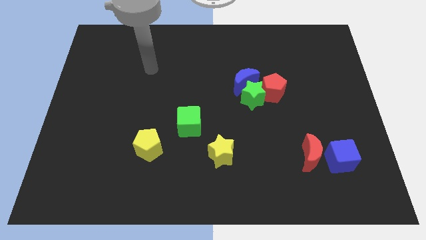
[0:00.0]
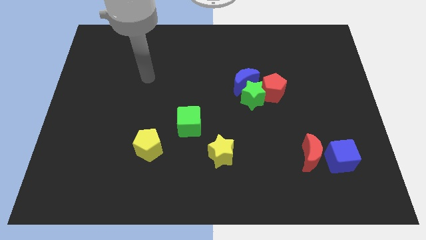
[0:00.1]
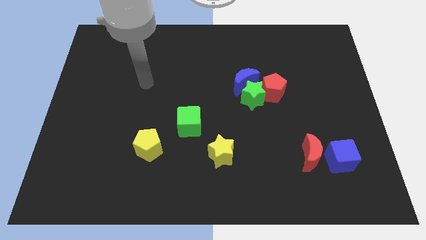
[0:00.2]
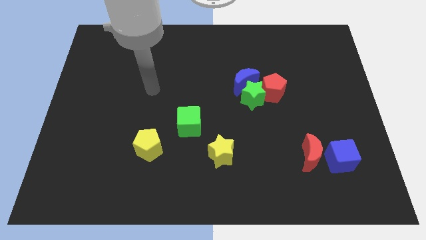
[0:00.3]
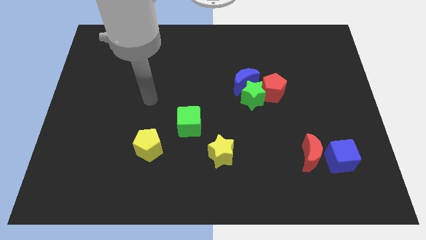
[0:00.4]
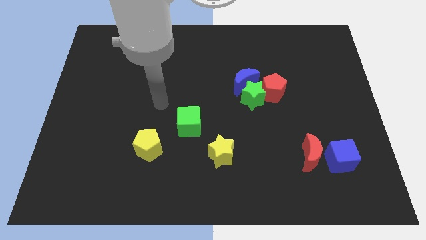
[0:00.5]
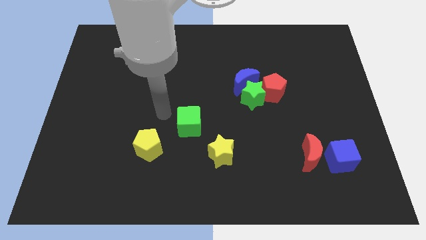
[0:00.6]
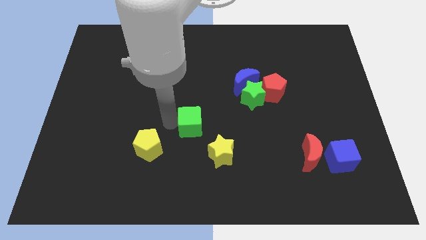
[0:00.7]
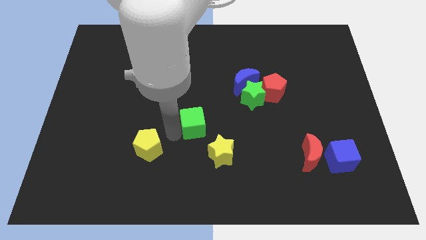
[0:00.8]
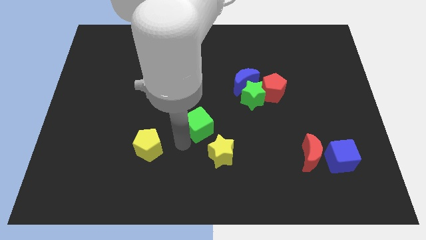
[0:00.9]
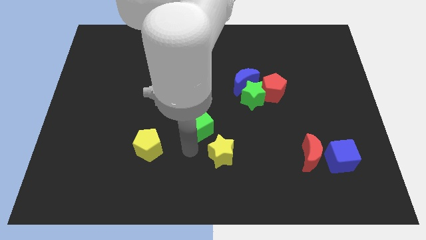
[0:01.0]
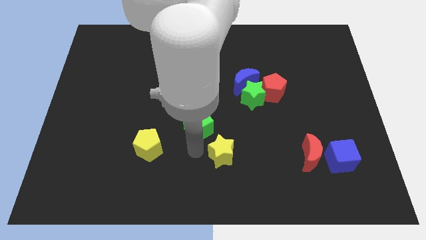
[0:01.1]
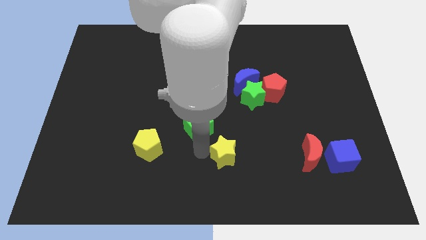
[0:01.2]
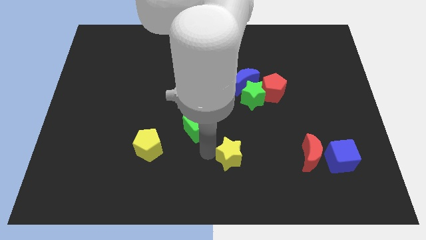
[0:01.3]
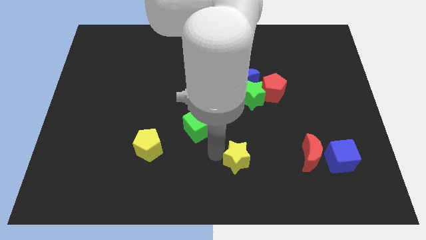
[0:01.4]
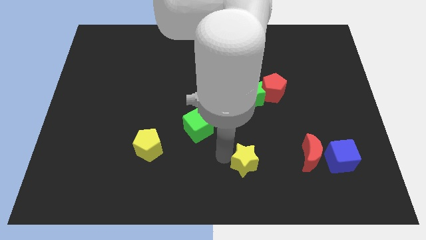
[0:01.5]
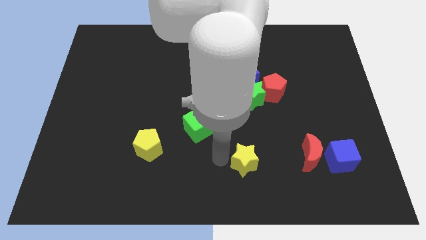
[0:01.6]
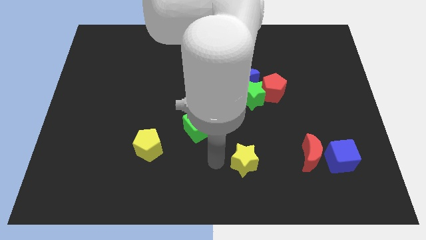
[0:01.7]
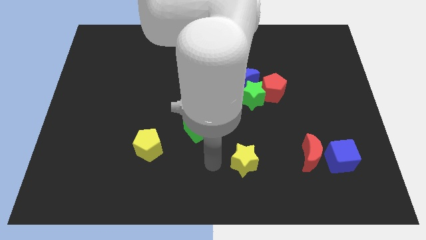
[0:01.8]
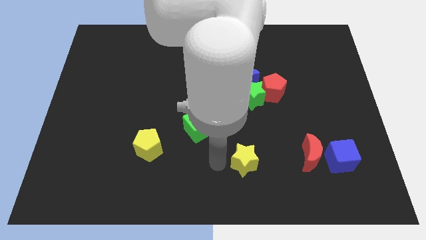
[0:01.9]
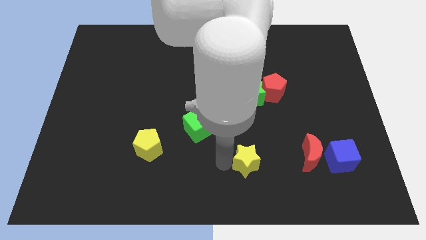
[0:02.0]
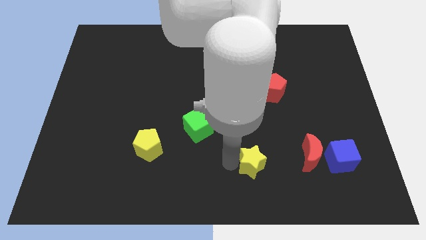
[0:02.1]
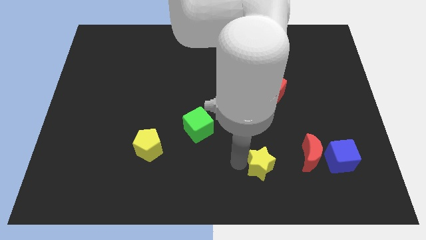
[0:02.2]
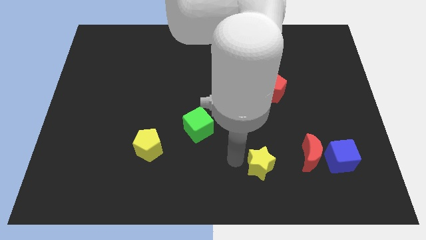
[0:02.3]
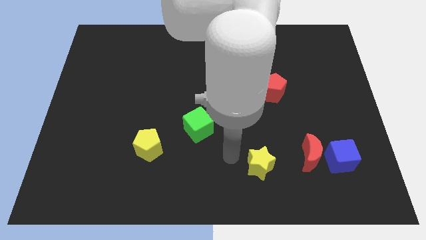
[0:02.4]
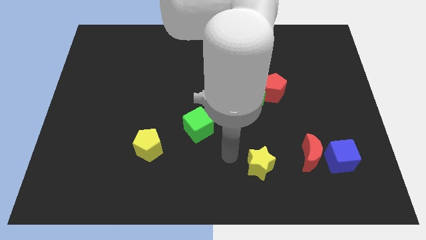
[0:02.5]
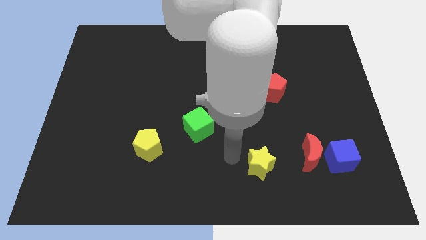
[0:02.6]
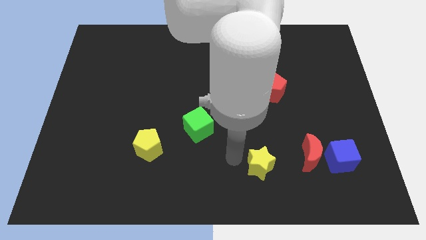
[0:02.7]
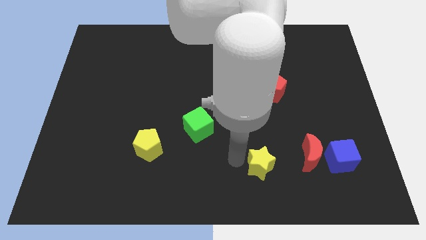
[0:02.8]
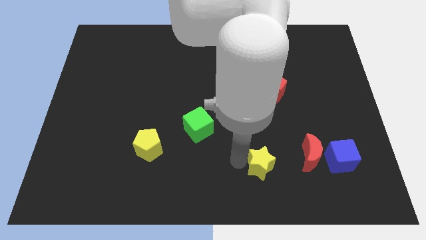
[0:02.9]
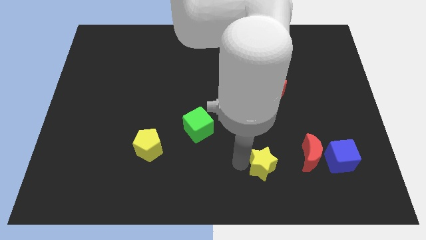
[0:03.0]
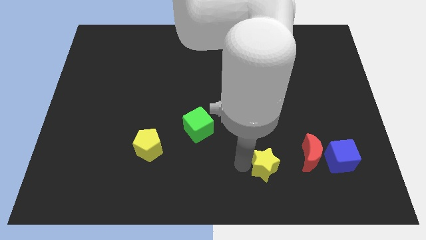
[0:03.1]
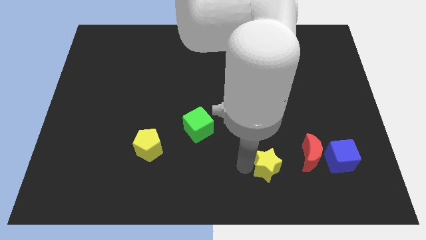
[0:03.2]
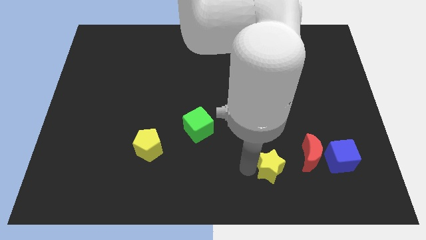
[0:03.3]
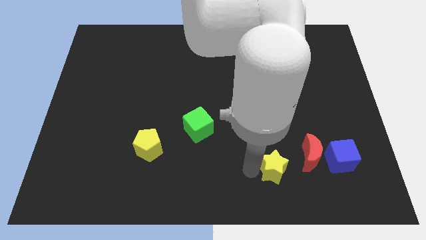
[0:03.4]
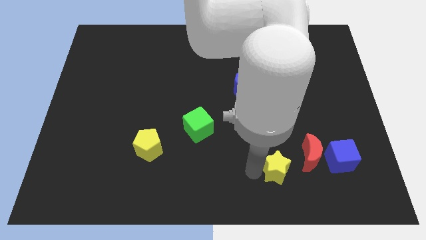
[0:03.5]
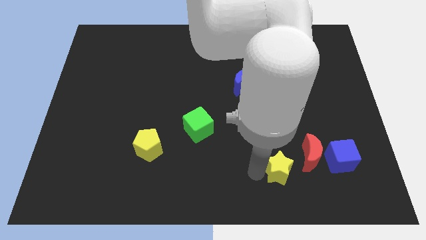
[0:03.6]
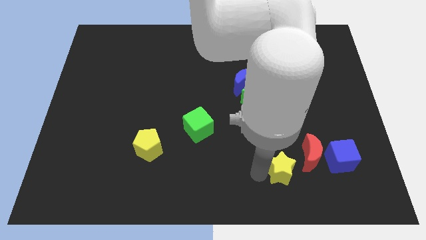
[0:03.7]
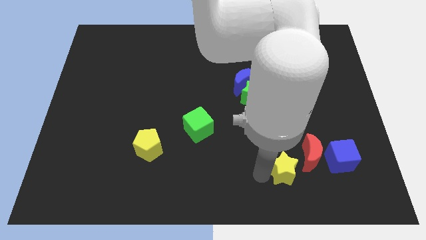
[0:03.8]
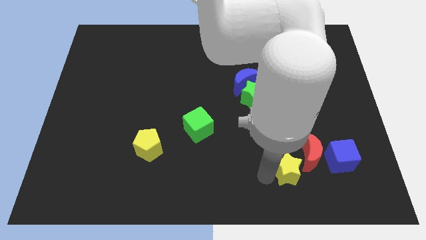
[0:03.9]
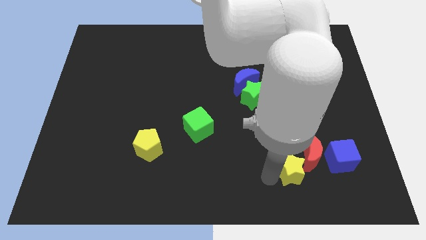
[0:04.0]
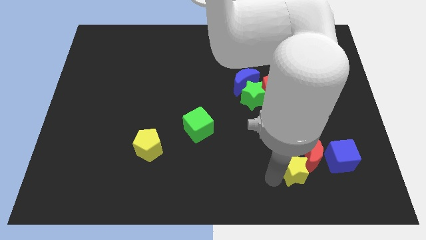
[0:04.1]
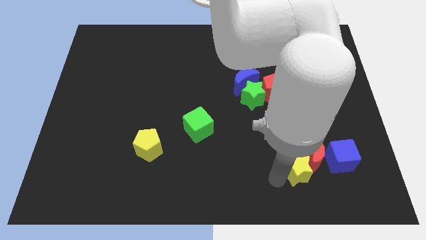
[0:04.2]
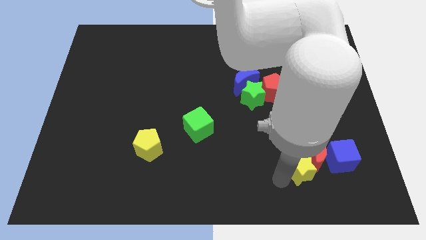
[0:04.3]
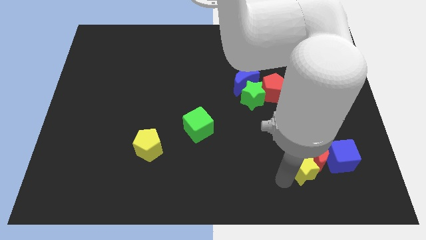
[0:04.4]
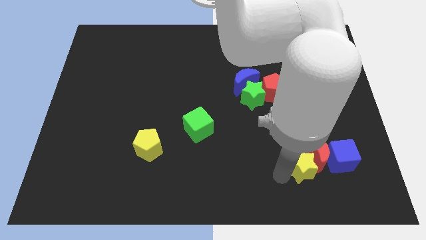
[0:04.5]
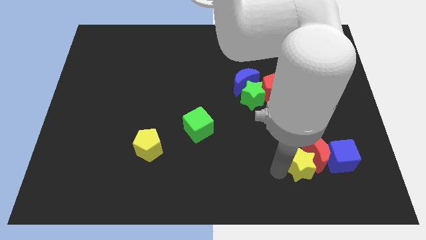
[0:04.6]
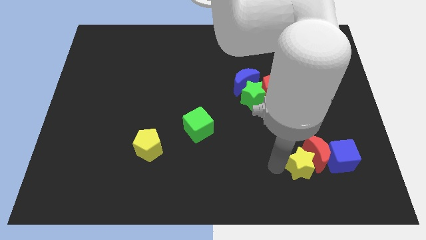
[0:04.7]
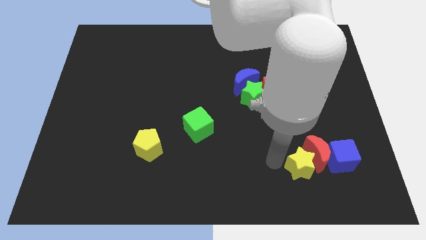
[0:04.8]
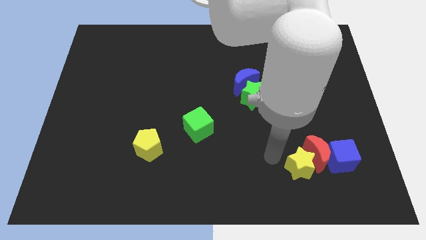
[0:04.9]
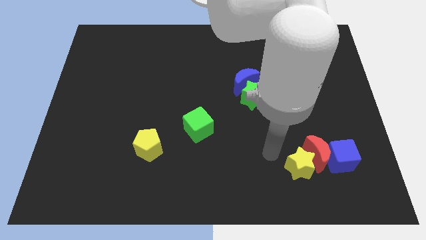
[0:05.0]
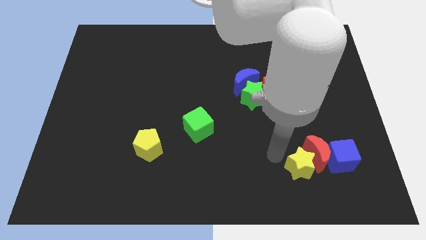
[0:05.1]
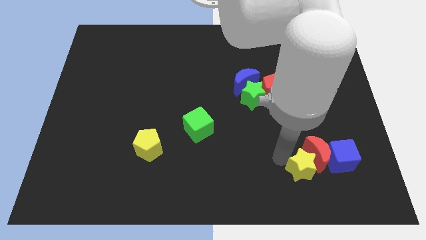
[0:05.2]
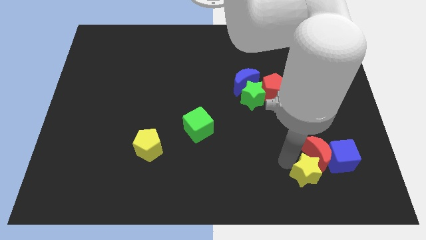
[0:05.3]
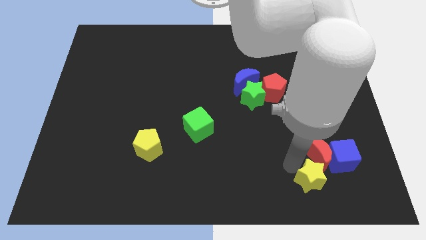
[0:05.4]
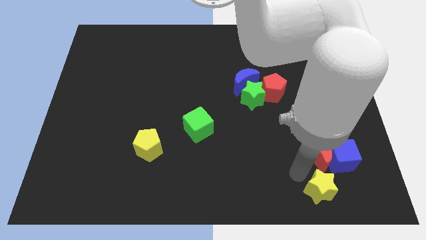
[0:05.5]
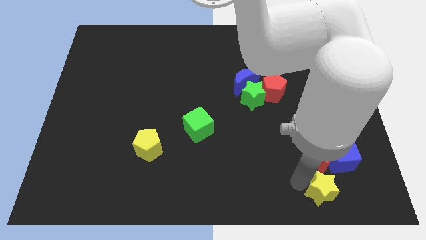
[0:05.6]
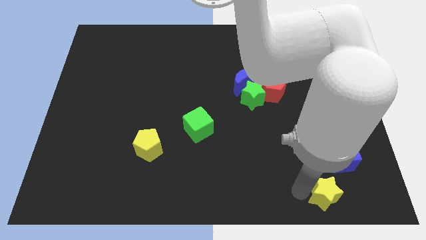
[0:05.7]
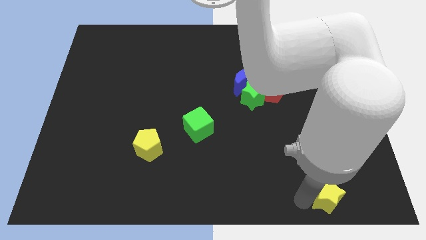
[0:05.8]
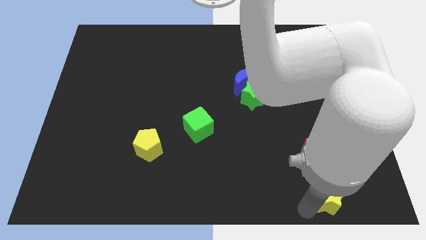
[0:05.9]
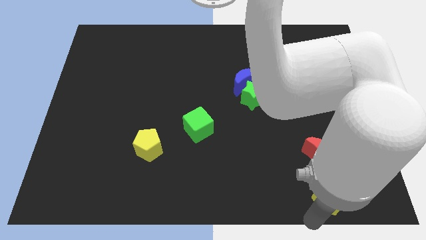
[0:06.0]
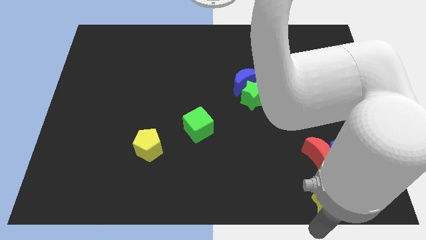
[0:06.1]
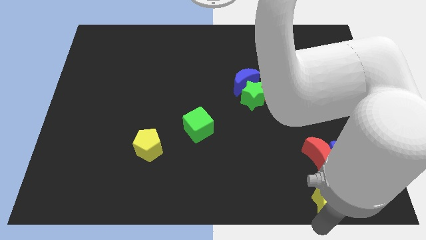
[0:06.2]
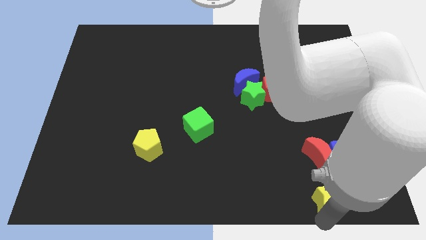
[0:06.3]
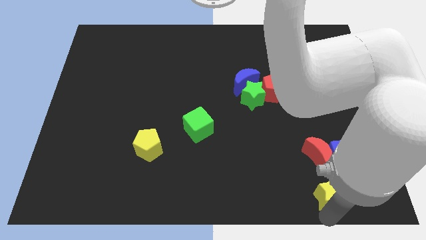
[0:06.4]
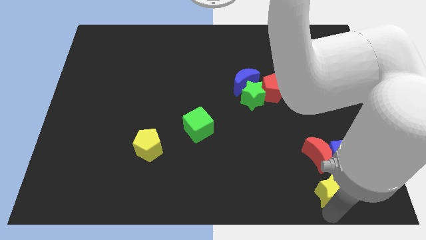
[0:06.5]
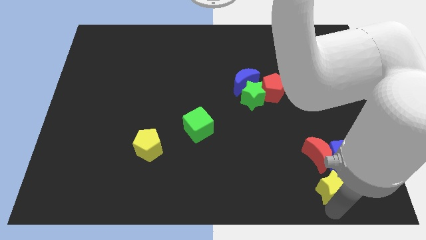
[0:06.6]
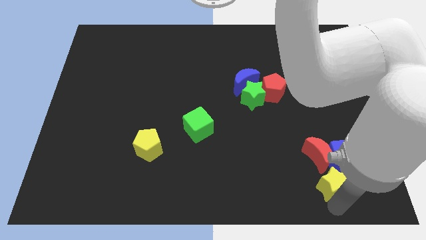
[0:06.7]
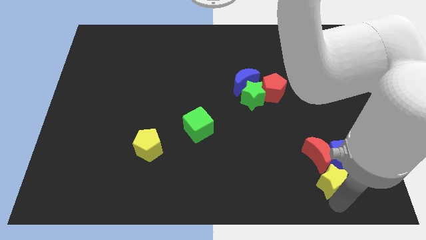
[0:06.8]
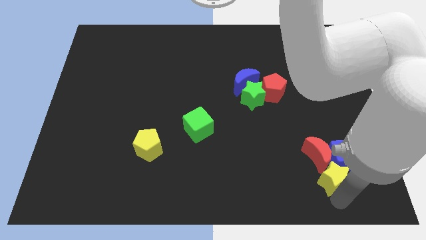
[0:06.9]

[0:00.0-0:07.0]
put the yellow star to the blue cube

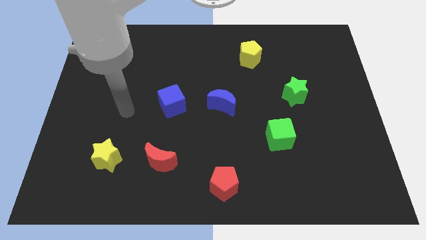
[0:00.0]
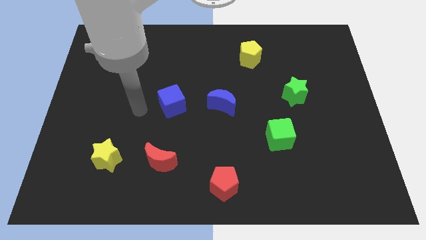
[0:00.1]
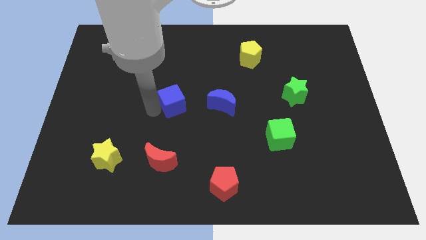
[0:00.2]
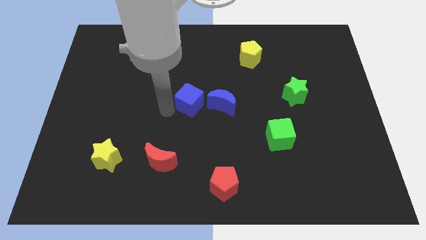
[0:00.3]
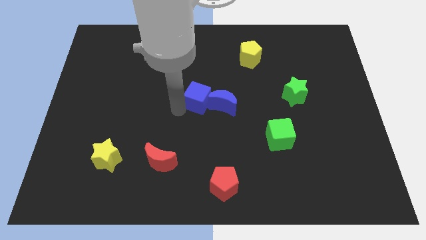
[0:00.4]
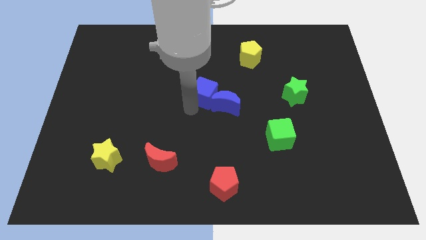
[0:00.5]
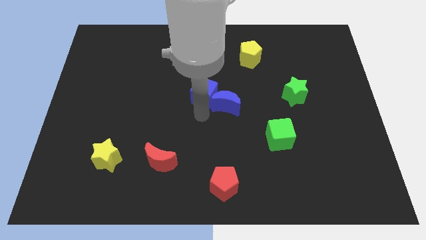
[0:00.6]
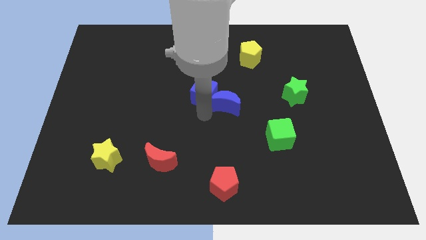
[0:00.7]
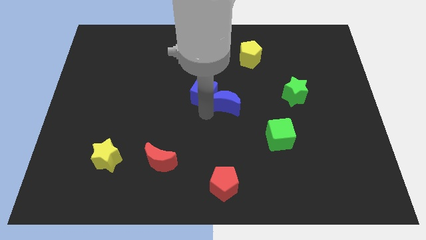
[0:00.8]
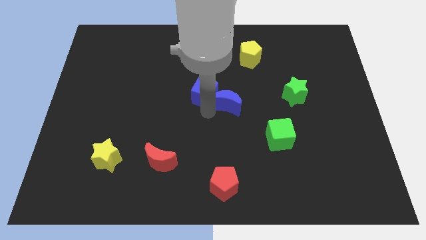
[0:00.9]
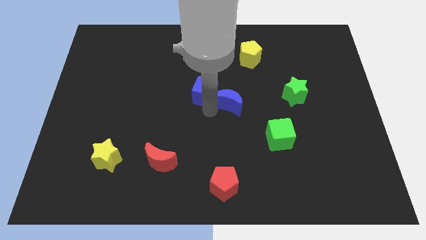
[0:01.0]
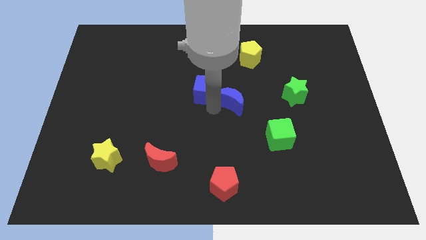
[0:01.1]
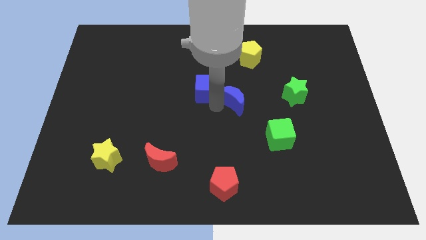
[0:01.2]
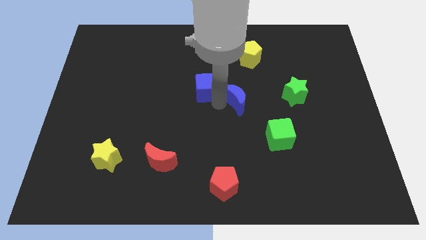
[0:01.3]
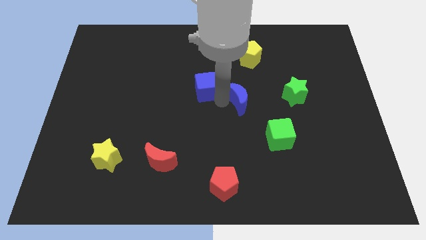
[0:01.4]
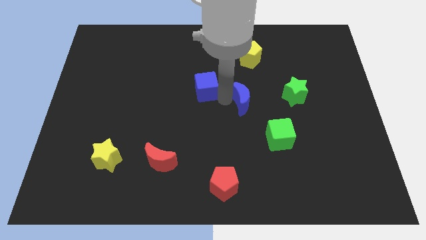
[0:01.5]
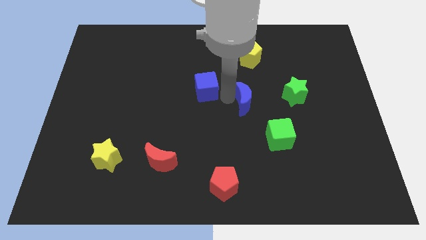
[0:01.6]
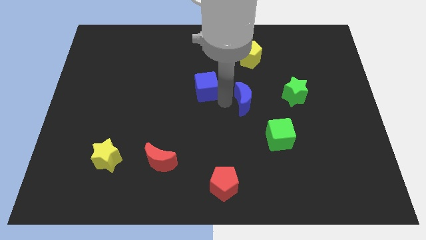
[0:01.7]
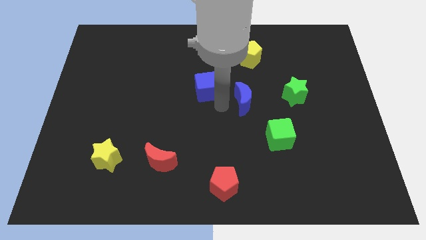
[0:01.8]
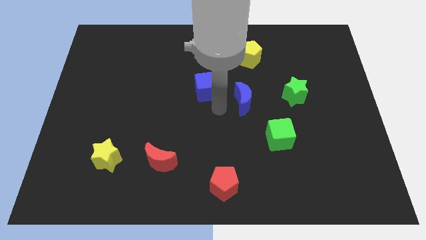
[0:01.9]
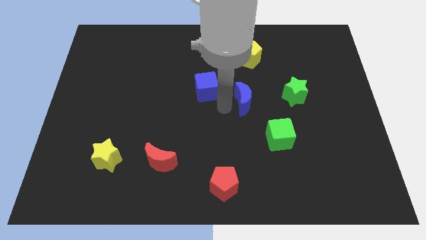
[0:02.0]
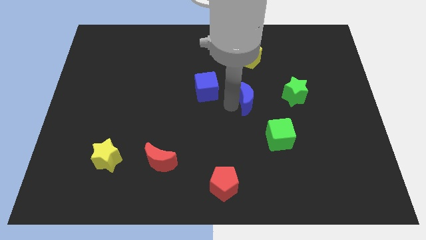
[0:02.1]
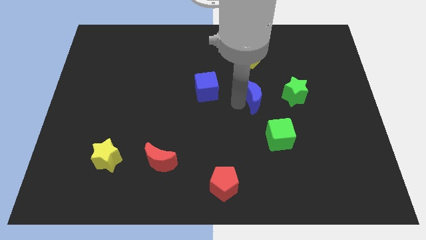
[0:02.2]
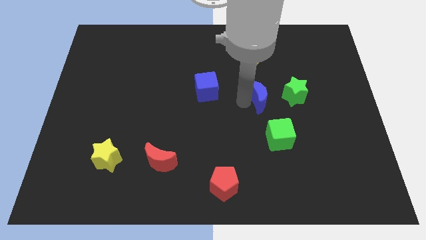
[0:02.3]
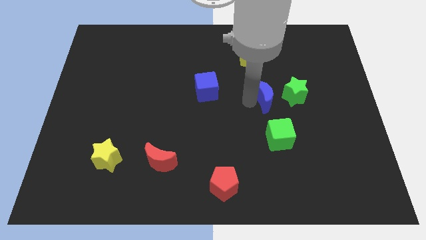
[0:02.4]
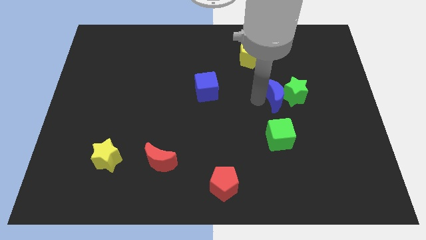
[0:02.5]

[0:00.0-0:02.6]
push the blue moon close to the green star
